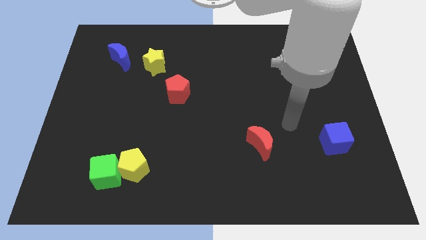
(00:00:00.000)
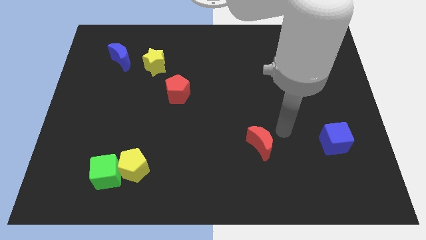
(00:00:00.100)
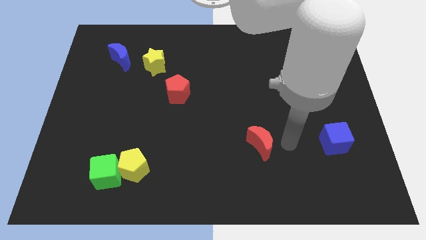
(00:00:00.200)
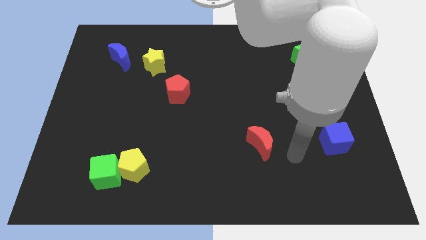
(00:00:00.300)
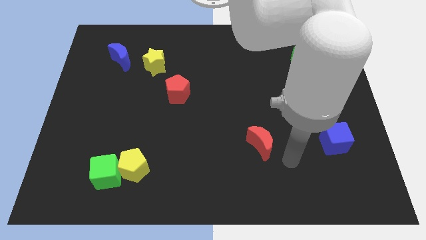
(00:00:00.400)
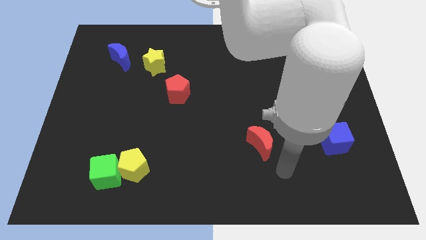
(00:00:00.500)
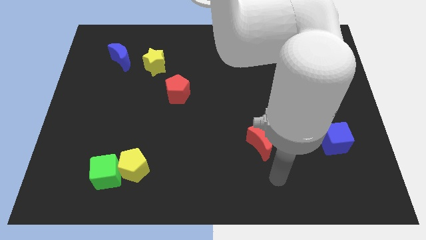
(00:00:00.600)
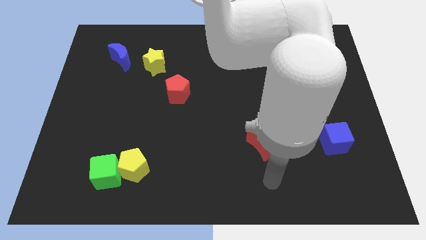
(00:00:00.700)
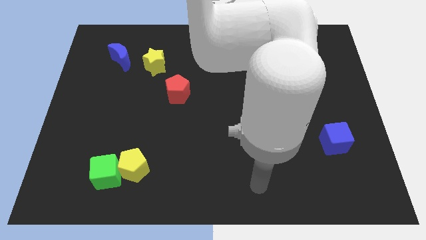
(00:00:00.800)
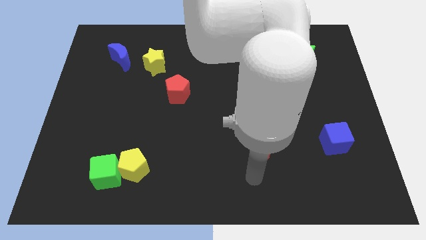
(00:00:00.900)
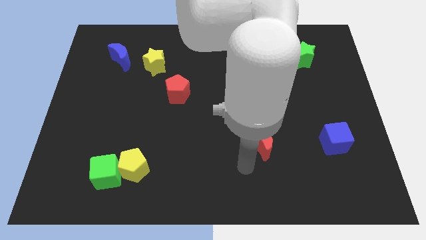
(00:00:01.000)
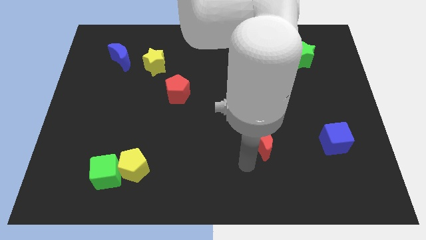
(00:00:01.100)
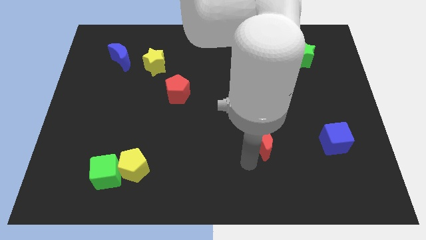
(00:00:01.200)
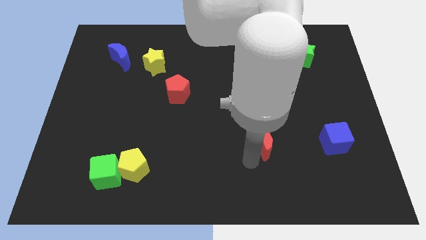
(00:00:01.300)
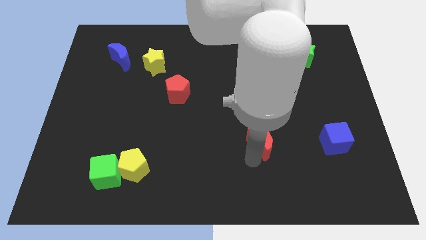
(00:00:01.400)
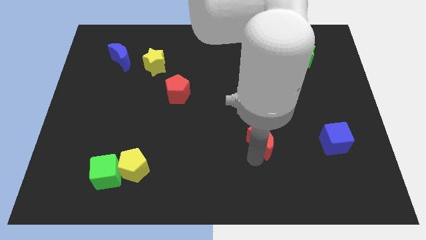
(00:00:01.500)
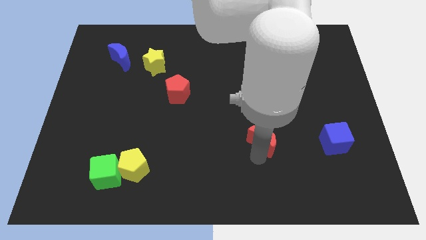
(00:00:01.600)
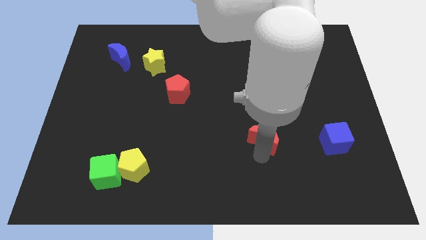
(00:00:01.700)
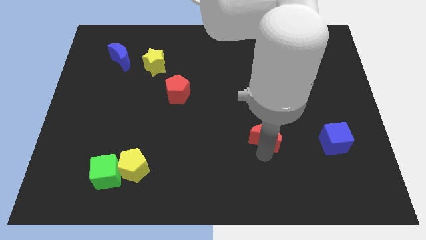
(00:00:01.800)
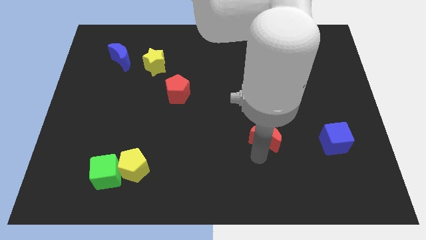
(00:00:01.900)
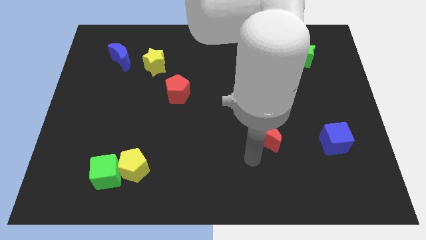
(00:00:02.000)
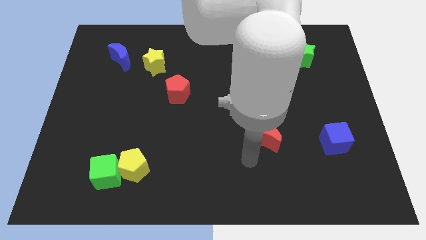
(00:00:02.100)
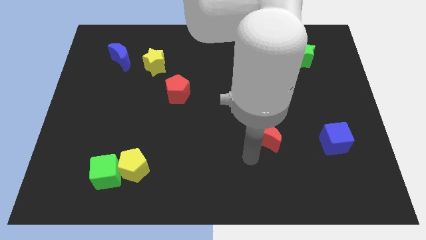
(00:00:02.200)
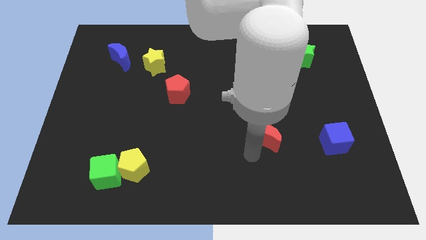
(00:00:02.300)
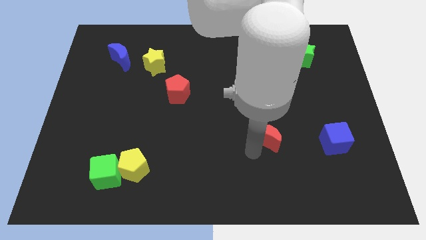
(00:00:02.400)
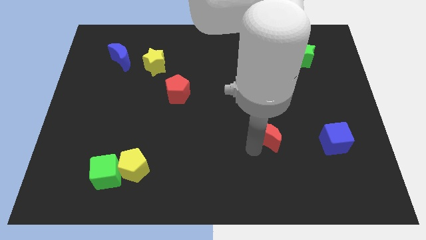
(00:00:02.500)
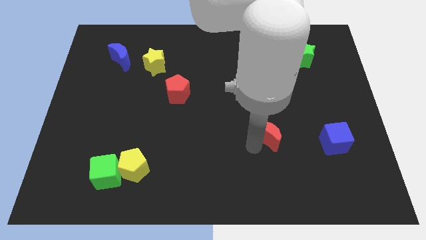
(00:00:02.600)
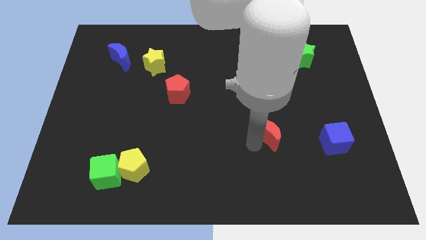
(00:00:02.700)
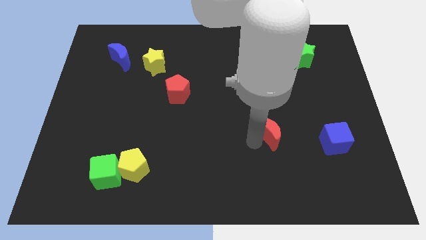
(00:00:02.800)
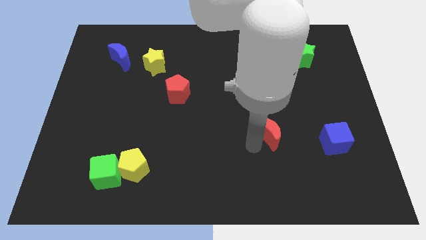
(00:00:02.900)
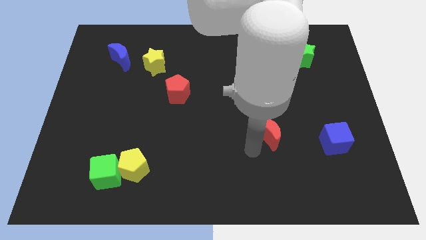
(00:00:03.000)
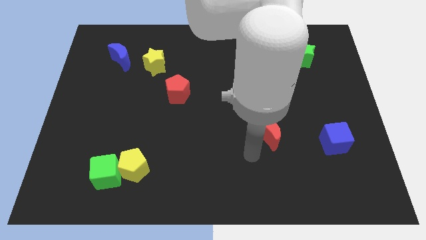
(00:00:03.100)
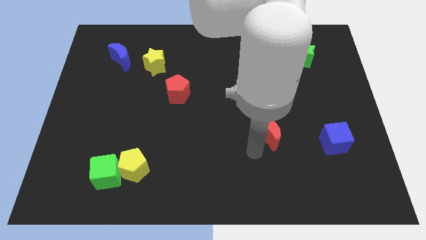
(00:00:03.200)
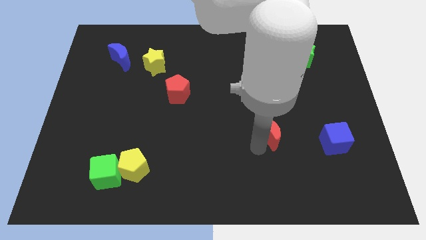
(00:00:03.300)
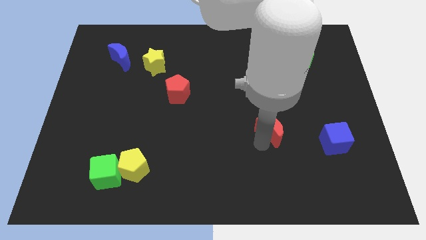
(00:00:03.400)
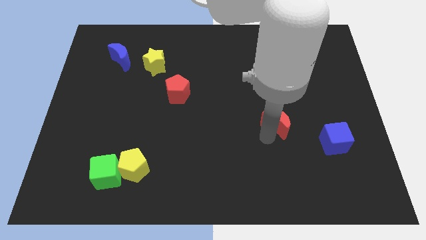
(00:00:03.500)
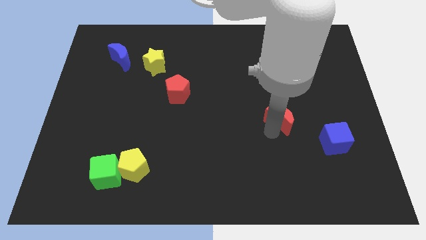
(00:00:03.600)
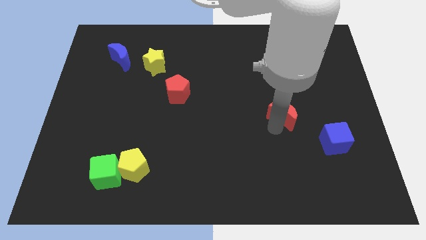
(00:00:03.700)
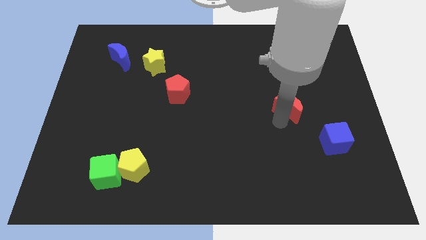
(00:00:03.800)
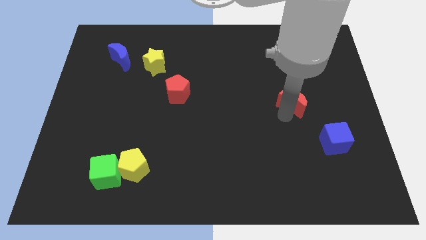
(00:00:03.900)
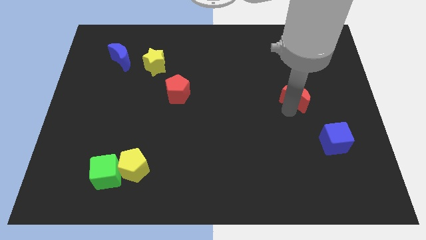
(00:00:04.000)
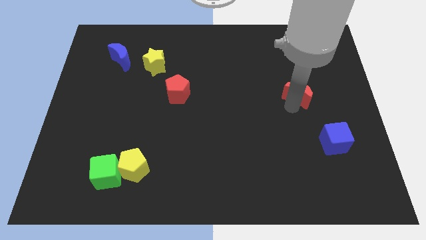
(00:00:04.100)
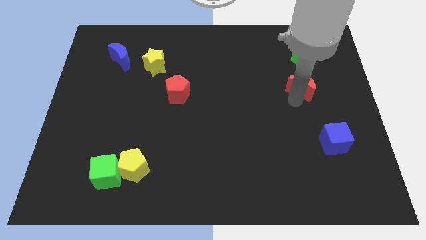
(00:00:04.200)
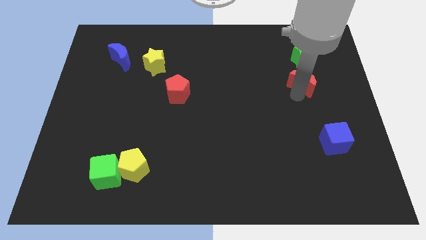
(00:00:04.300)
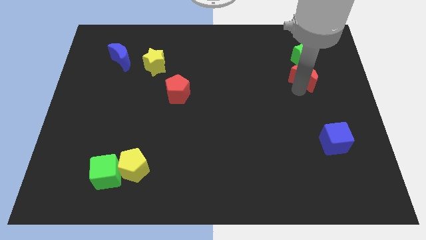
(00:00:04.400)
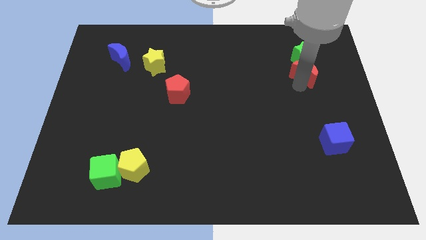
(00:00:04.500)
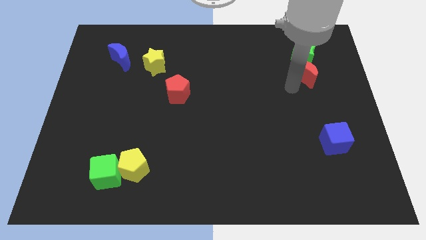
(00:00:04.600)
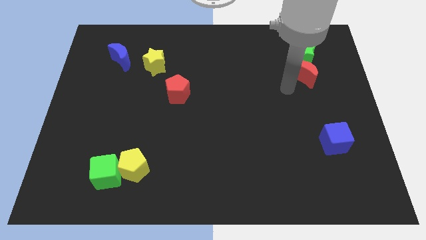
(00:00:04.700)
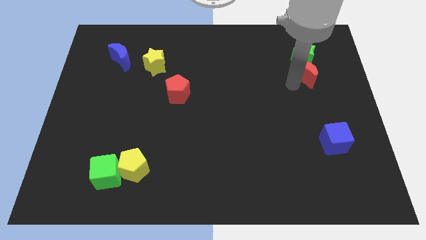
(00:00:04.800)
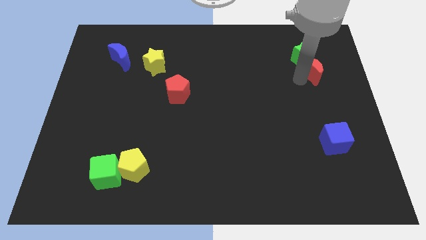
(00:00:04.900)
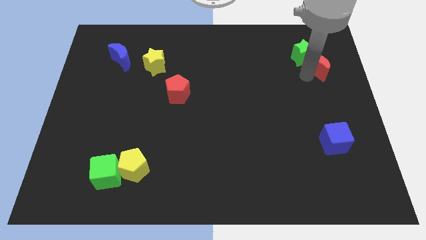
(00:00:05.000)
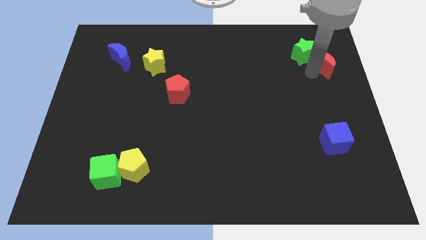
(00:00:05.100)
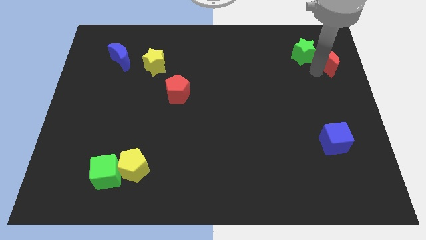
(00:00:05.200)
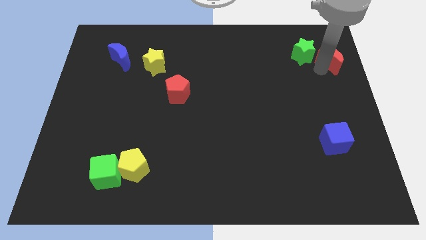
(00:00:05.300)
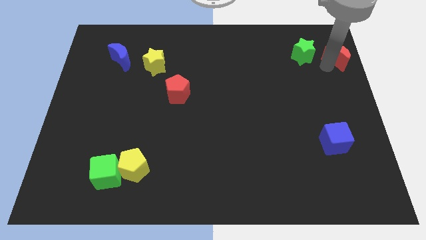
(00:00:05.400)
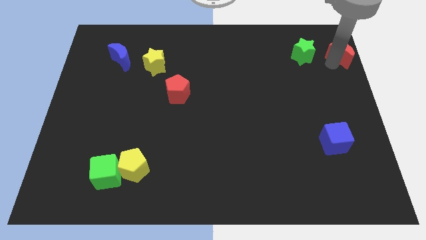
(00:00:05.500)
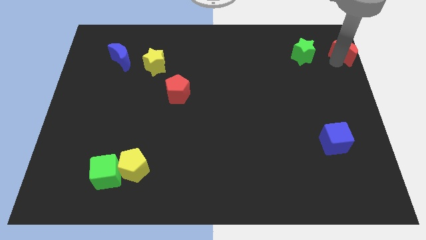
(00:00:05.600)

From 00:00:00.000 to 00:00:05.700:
push the red moon to the top right

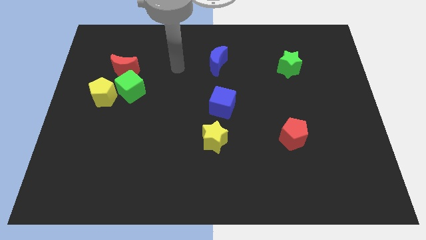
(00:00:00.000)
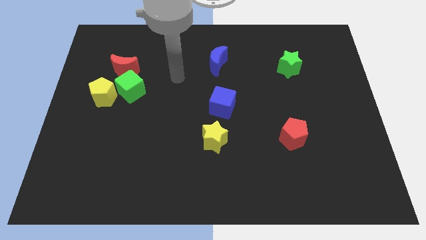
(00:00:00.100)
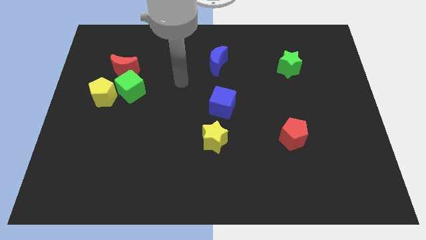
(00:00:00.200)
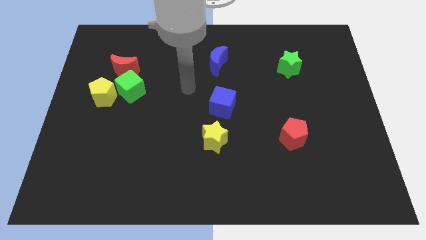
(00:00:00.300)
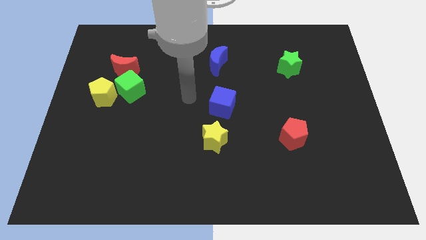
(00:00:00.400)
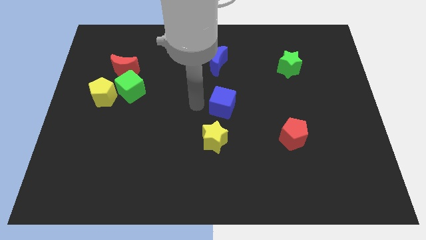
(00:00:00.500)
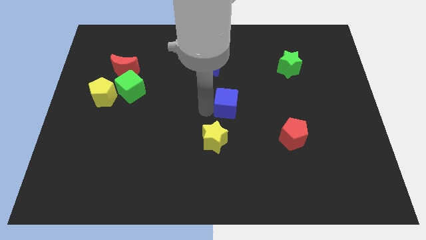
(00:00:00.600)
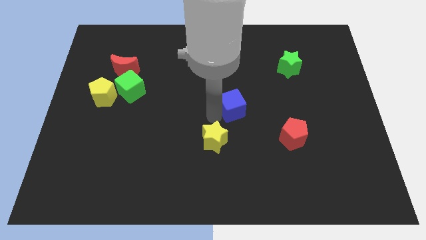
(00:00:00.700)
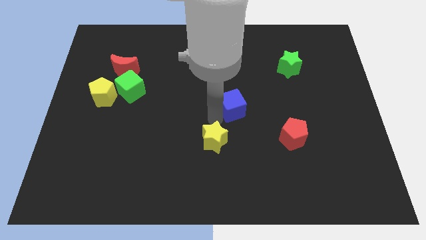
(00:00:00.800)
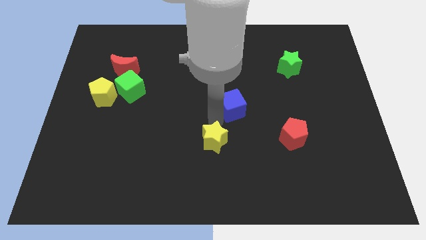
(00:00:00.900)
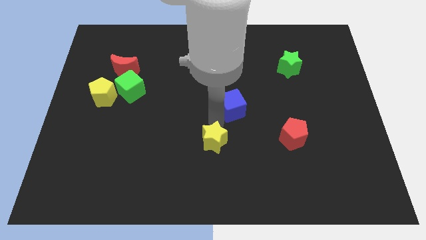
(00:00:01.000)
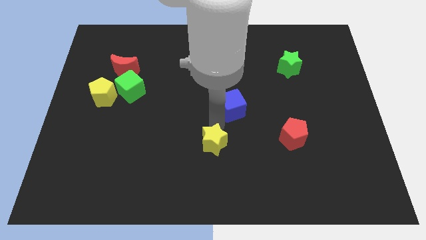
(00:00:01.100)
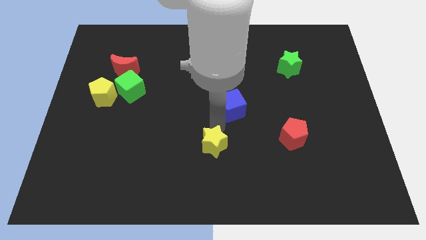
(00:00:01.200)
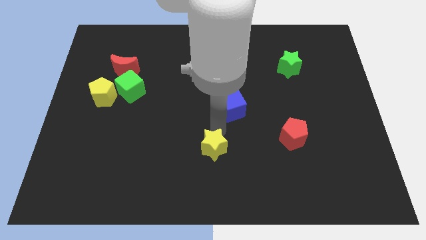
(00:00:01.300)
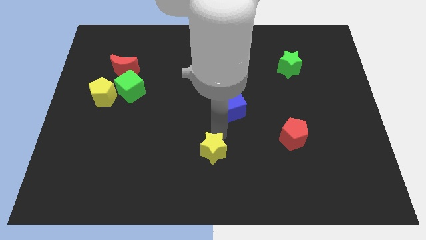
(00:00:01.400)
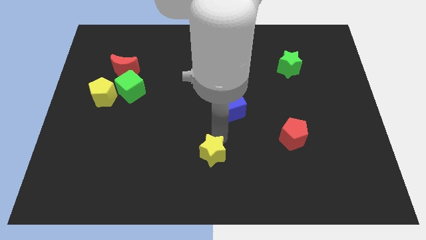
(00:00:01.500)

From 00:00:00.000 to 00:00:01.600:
push the yellow star to the bottom side
